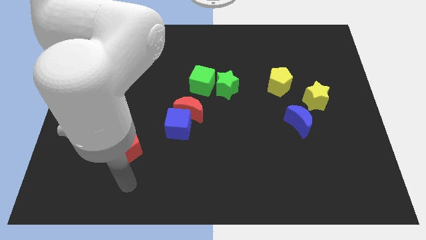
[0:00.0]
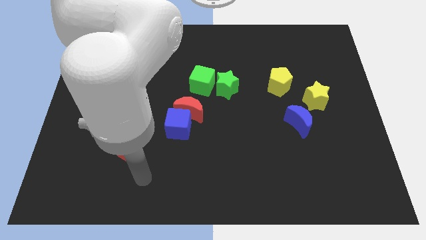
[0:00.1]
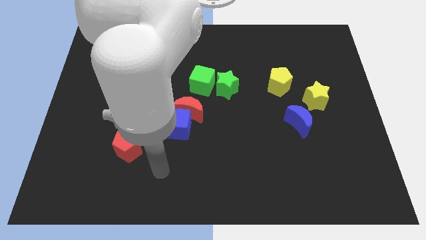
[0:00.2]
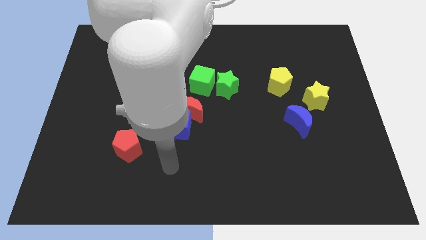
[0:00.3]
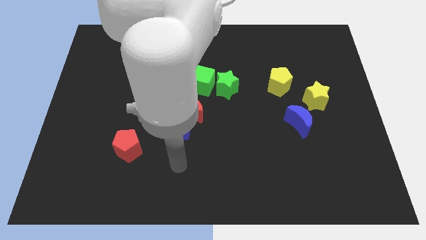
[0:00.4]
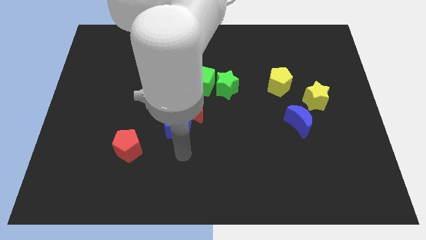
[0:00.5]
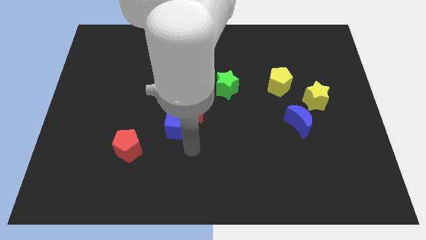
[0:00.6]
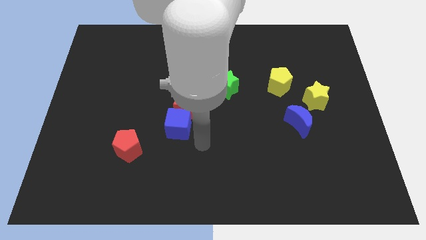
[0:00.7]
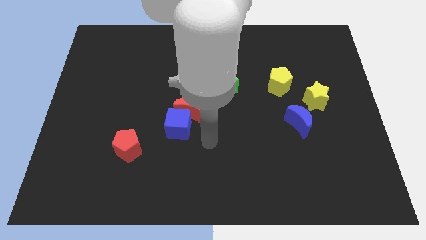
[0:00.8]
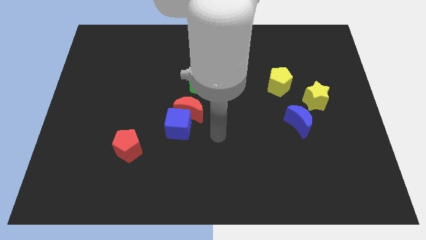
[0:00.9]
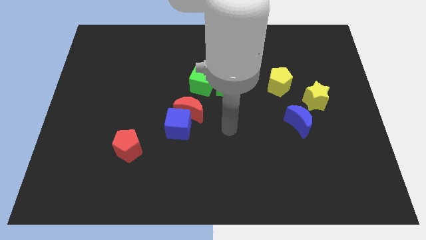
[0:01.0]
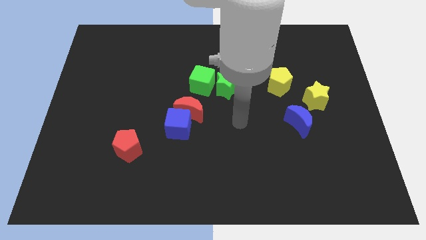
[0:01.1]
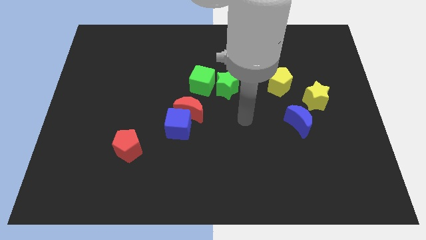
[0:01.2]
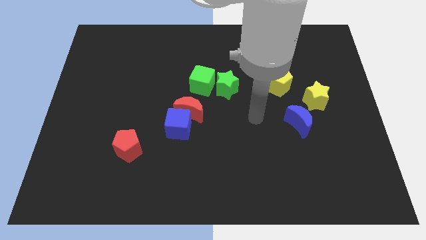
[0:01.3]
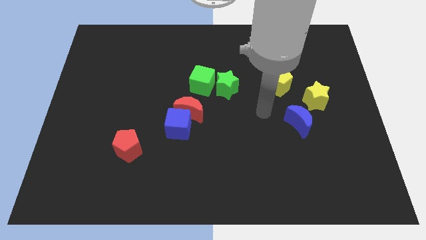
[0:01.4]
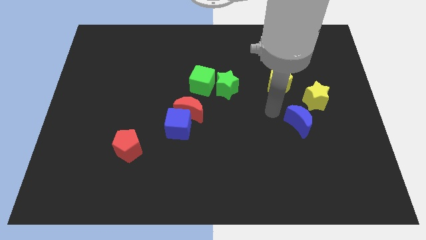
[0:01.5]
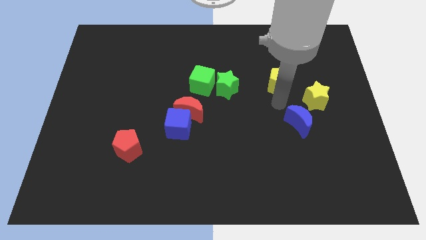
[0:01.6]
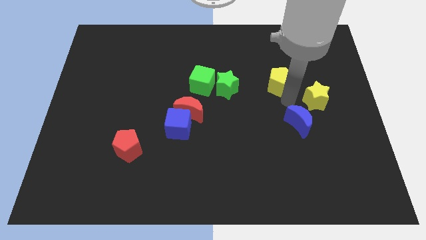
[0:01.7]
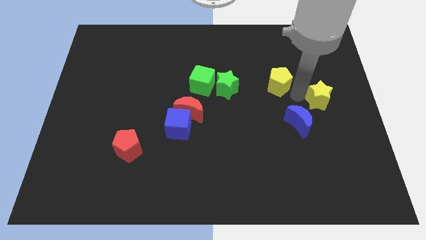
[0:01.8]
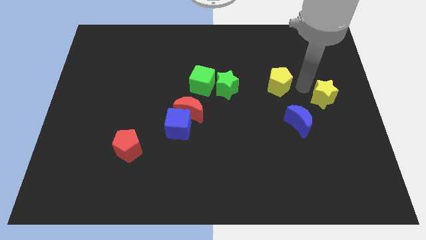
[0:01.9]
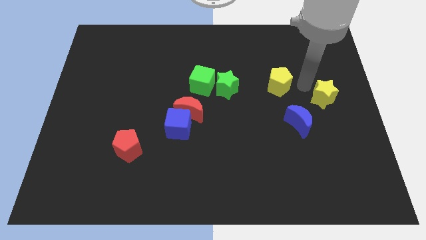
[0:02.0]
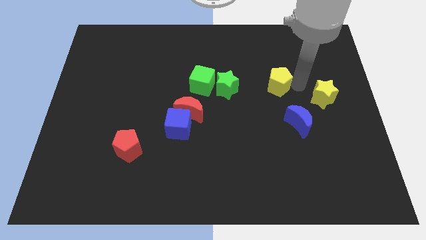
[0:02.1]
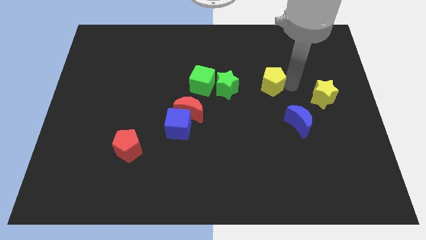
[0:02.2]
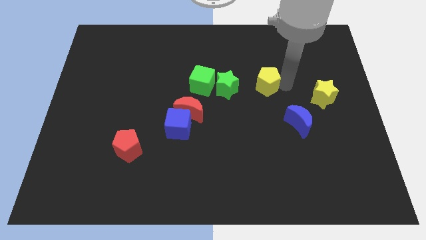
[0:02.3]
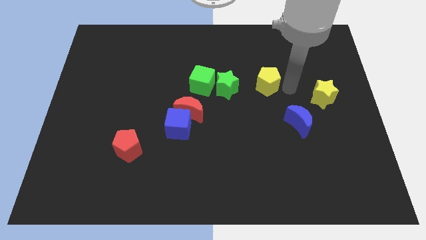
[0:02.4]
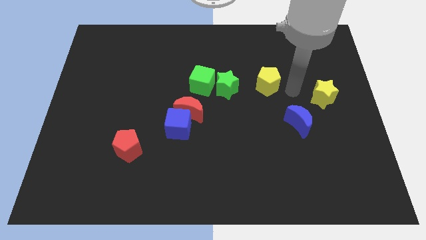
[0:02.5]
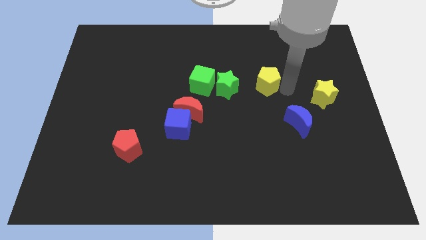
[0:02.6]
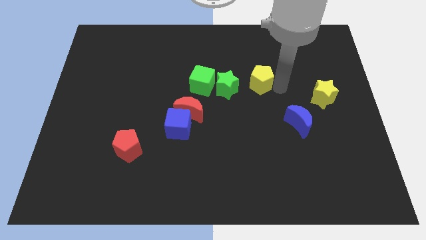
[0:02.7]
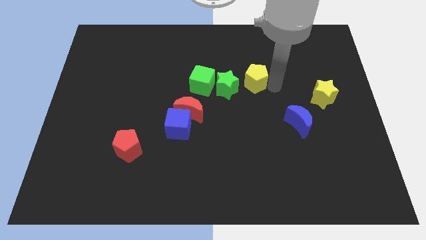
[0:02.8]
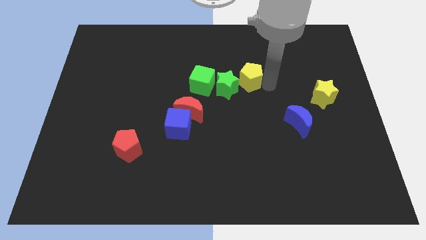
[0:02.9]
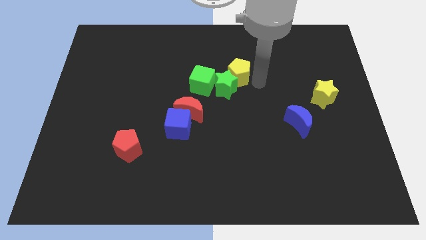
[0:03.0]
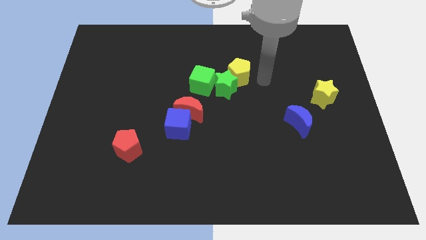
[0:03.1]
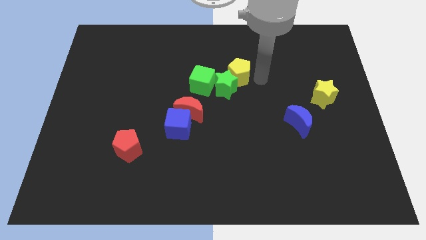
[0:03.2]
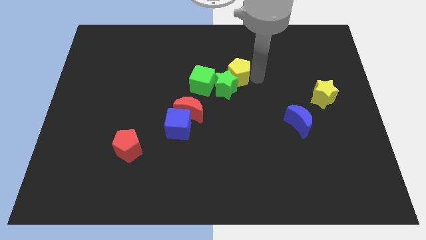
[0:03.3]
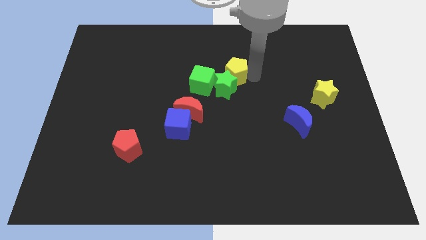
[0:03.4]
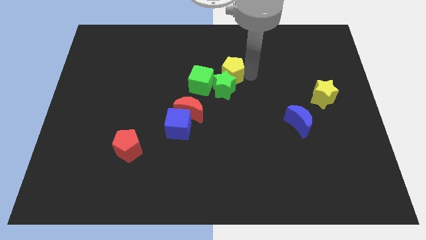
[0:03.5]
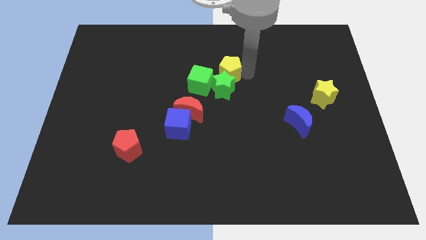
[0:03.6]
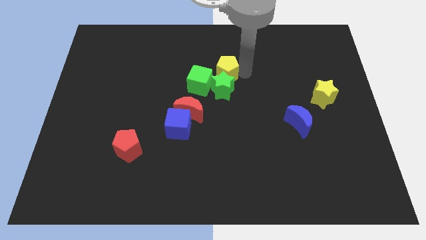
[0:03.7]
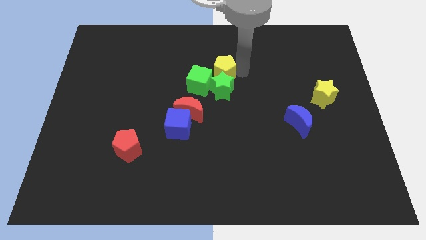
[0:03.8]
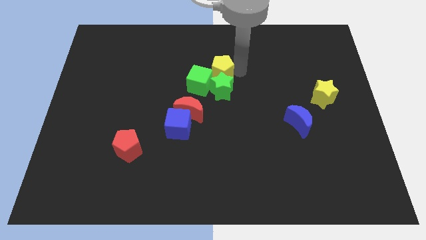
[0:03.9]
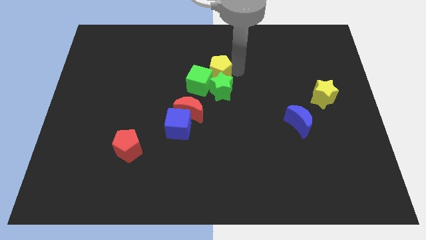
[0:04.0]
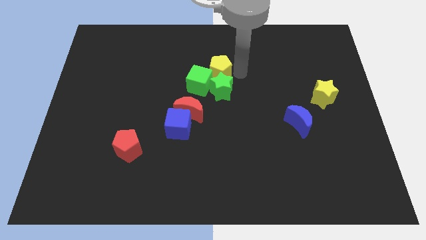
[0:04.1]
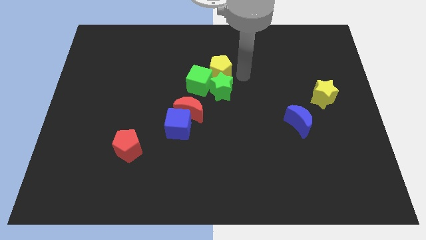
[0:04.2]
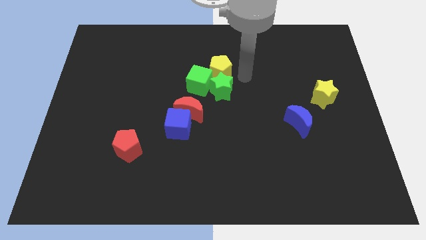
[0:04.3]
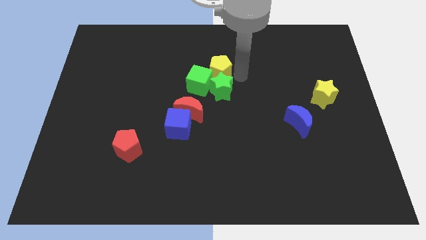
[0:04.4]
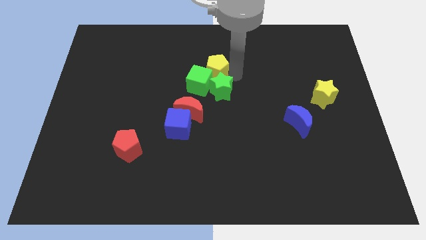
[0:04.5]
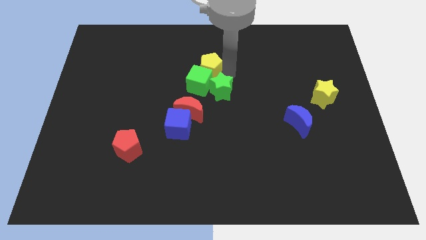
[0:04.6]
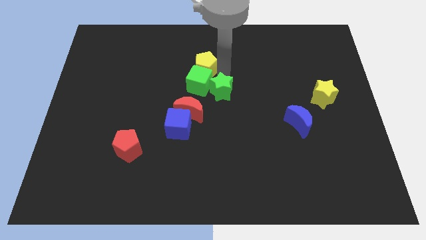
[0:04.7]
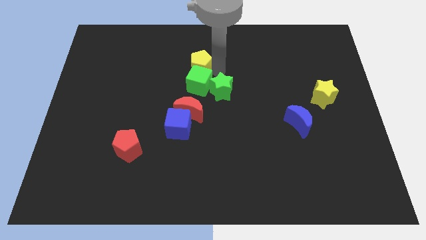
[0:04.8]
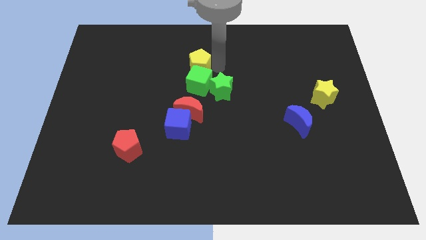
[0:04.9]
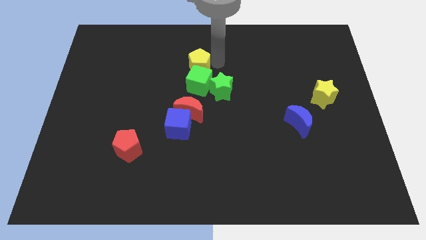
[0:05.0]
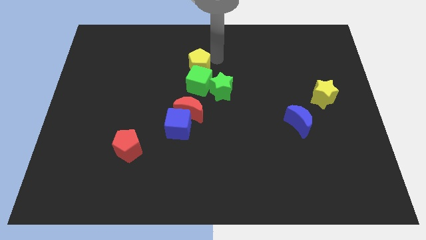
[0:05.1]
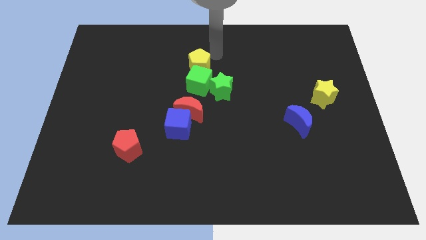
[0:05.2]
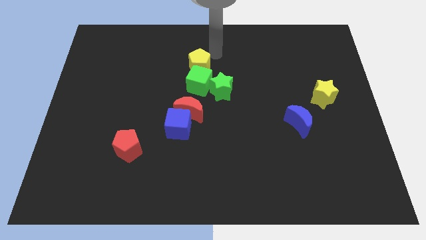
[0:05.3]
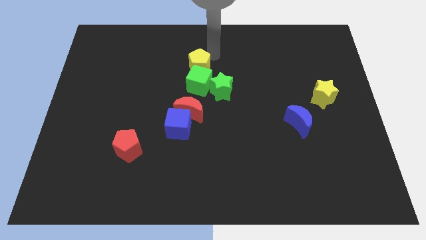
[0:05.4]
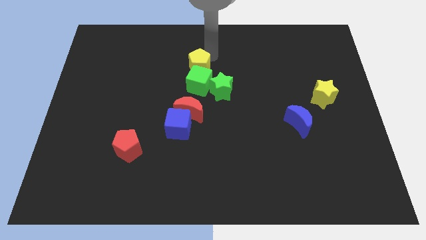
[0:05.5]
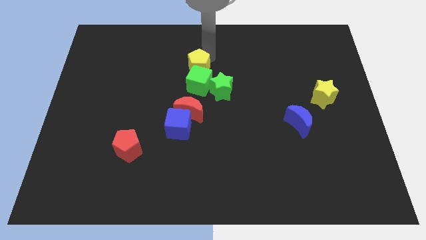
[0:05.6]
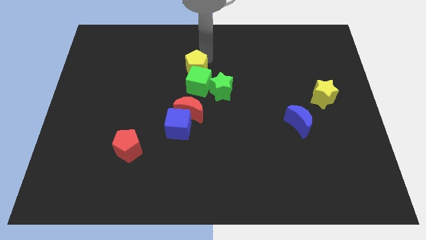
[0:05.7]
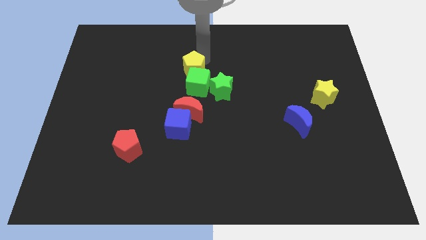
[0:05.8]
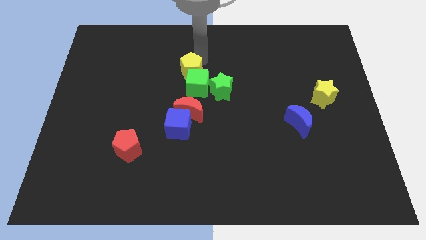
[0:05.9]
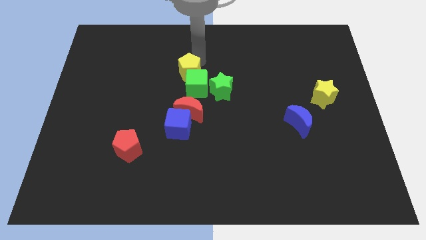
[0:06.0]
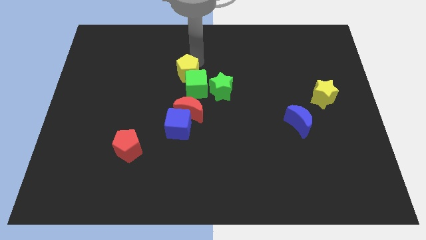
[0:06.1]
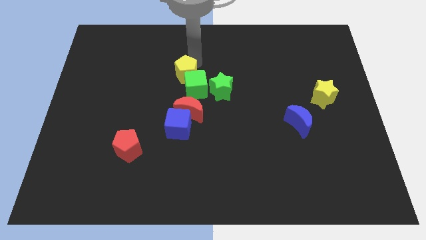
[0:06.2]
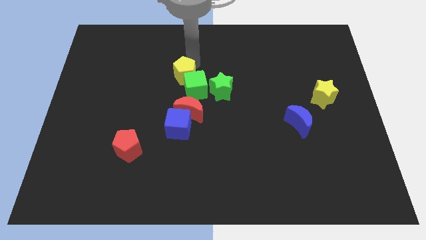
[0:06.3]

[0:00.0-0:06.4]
push the yellow pentagon above the blue cube

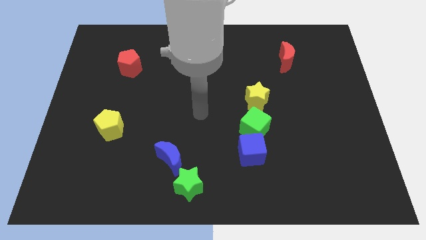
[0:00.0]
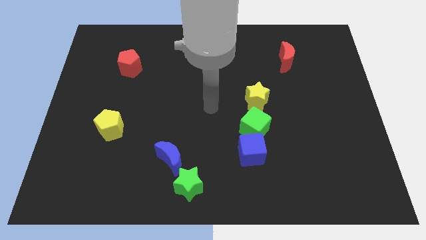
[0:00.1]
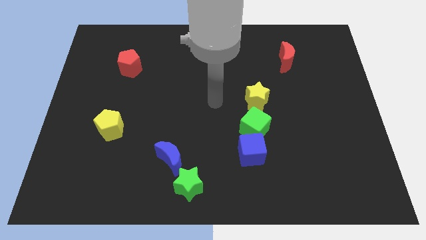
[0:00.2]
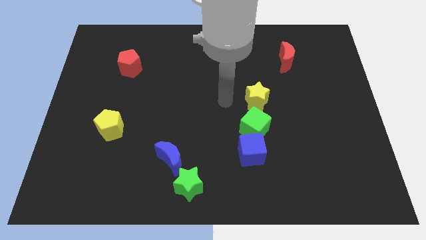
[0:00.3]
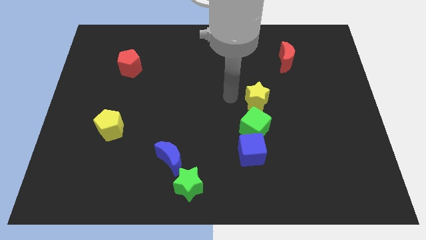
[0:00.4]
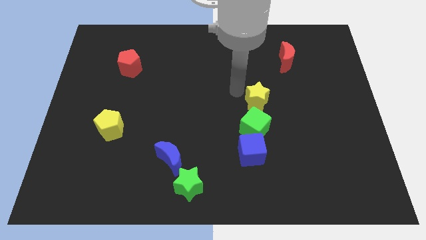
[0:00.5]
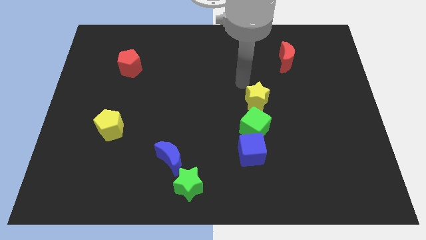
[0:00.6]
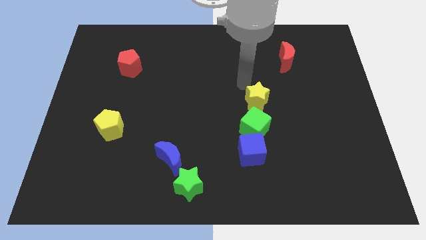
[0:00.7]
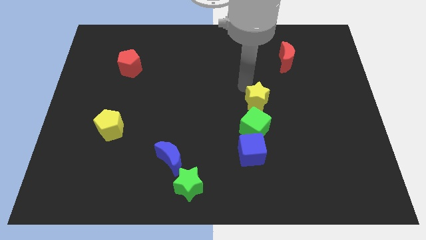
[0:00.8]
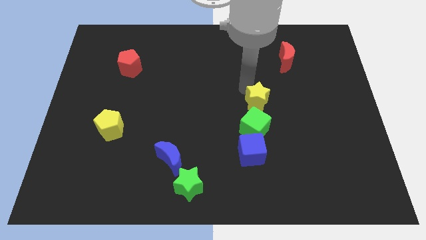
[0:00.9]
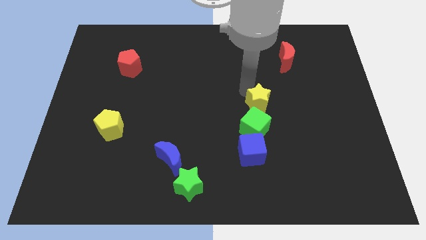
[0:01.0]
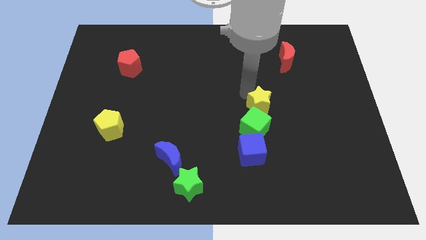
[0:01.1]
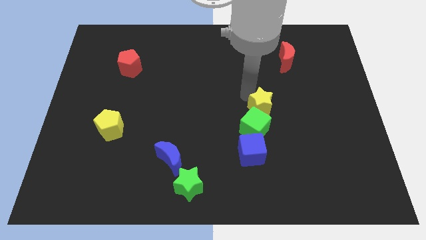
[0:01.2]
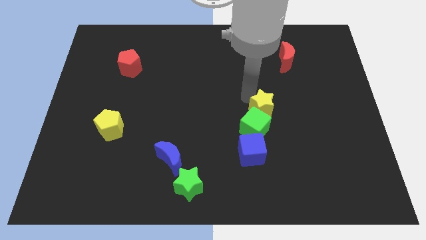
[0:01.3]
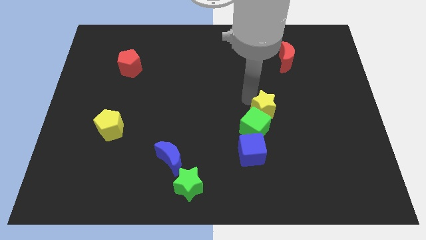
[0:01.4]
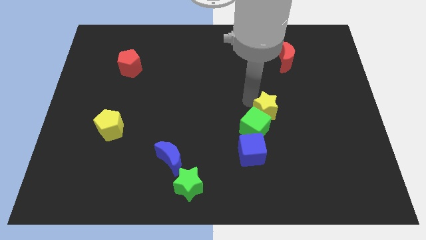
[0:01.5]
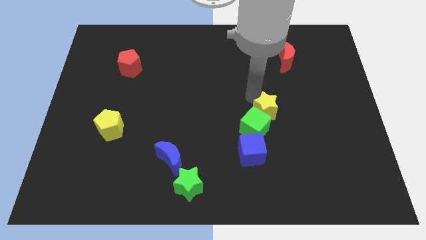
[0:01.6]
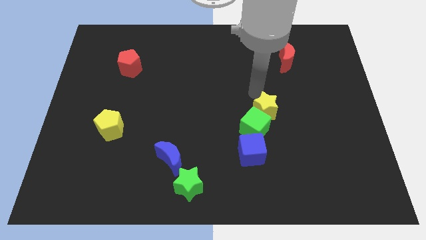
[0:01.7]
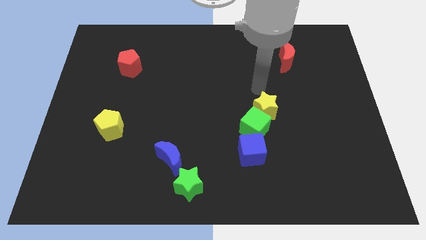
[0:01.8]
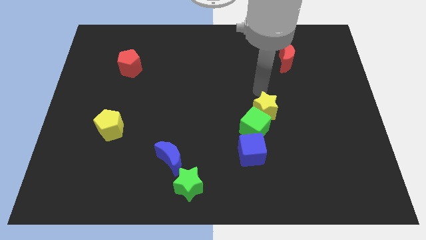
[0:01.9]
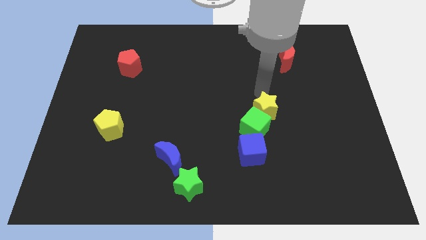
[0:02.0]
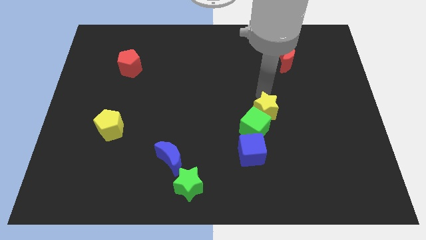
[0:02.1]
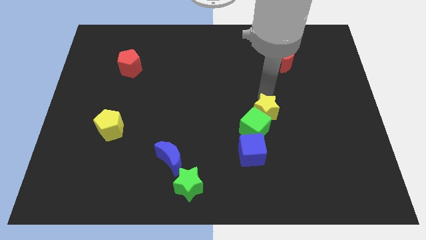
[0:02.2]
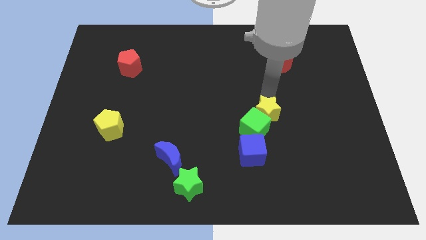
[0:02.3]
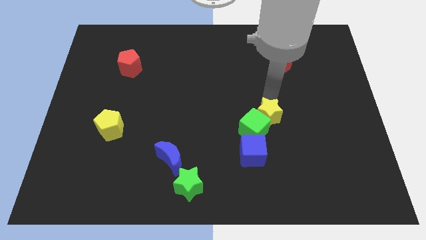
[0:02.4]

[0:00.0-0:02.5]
put the yellow star diagonally up and to the right of the blue cube
